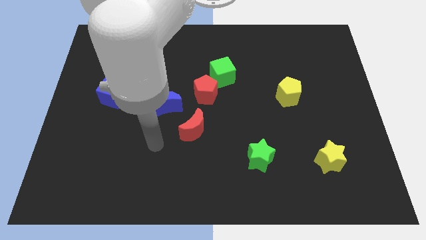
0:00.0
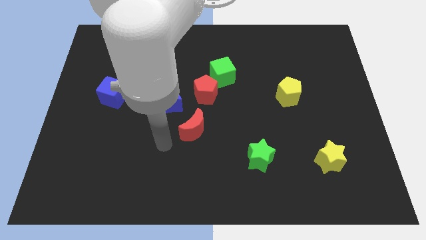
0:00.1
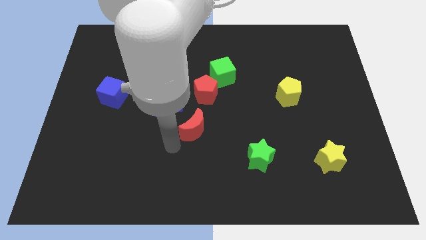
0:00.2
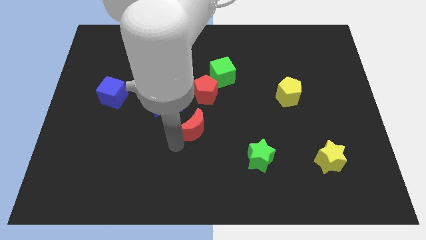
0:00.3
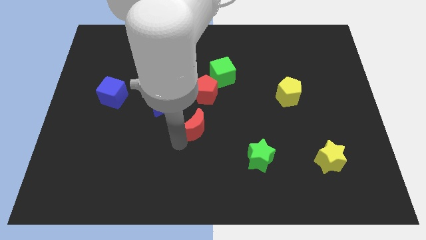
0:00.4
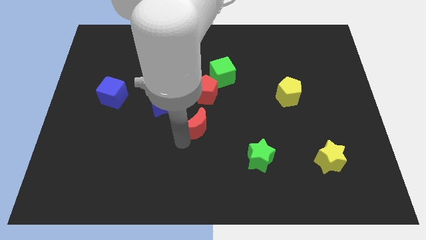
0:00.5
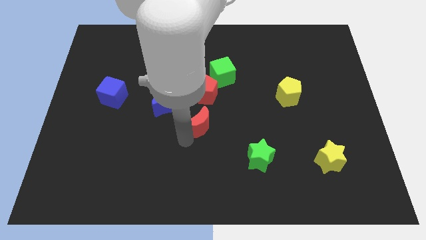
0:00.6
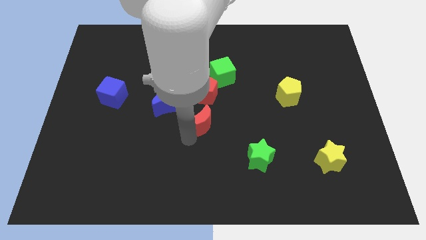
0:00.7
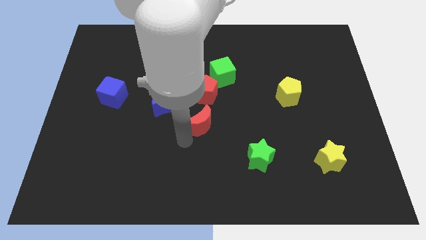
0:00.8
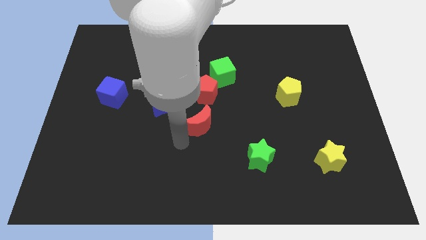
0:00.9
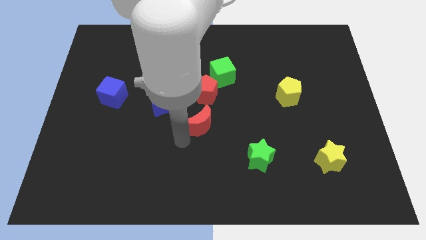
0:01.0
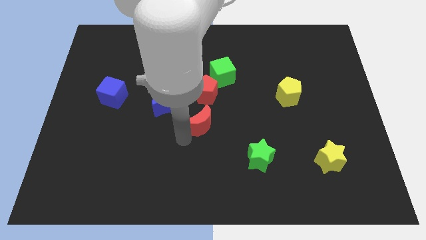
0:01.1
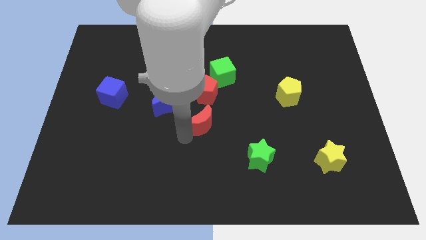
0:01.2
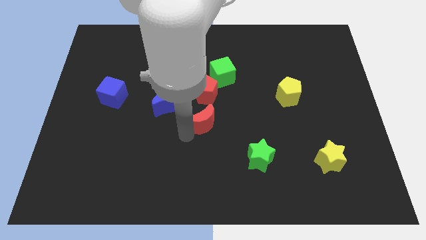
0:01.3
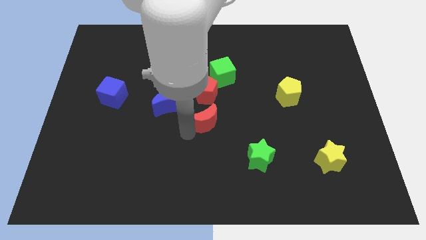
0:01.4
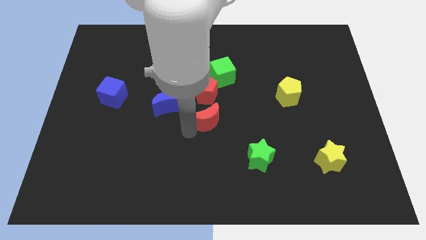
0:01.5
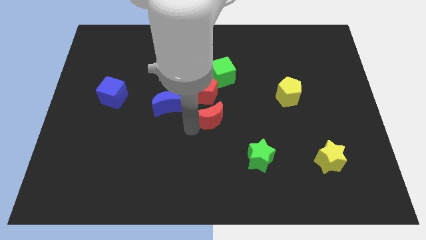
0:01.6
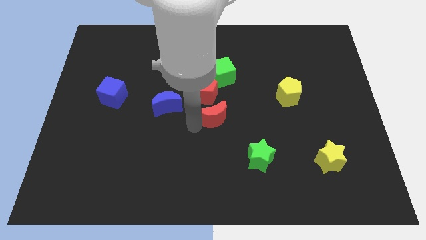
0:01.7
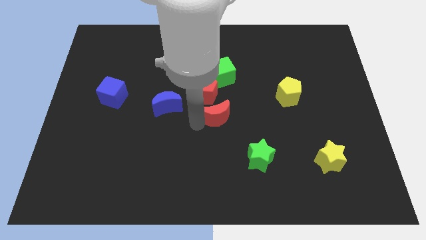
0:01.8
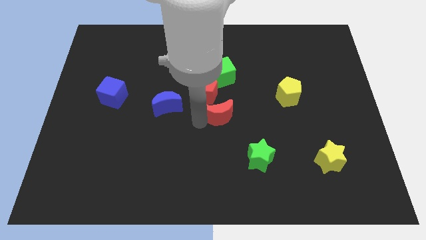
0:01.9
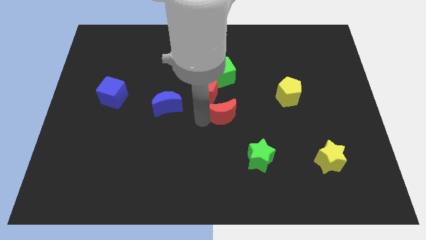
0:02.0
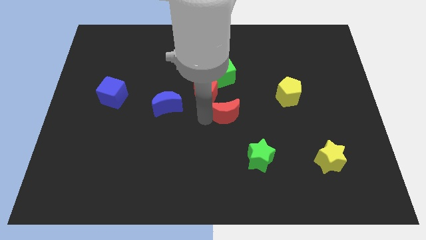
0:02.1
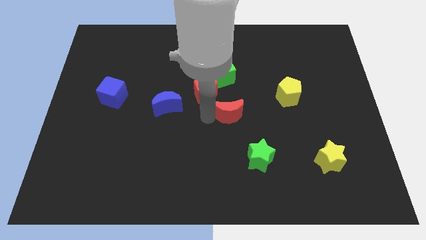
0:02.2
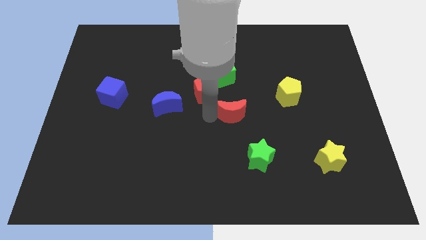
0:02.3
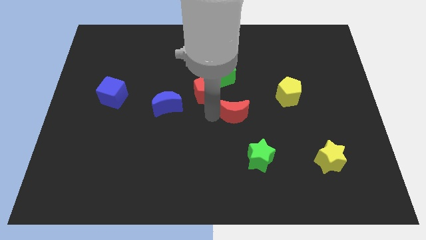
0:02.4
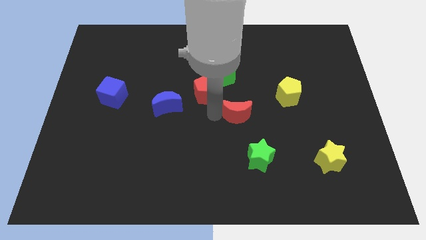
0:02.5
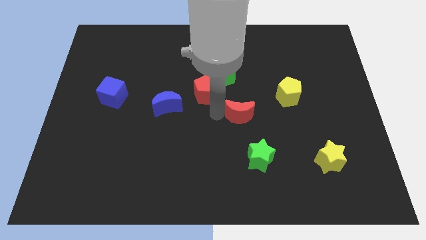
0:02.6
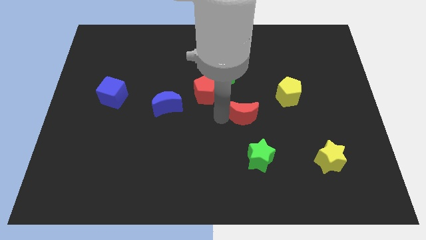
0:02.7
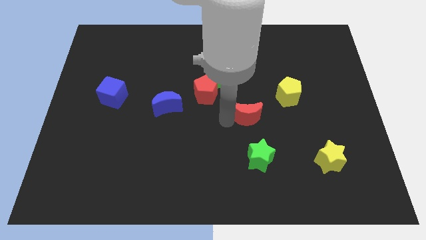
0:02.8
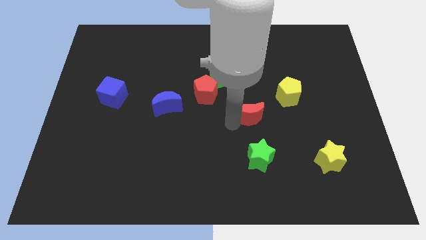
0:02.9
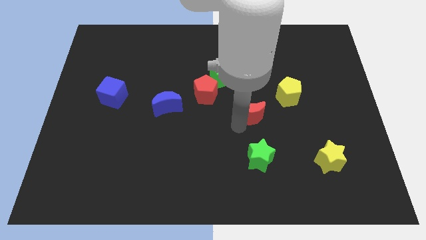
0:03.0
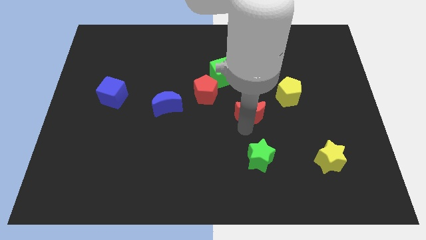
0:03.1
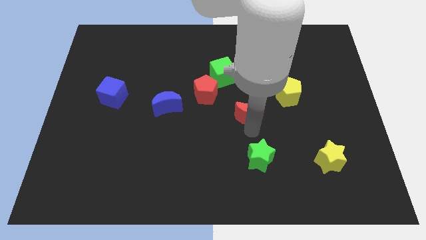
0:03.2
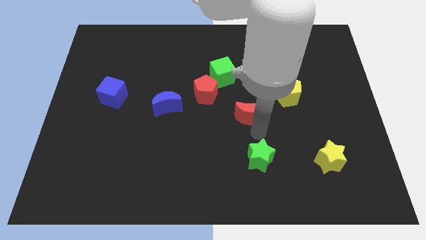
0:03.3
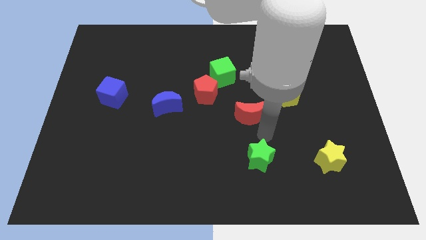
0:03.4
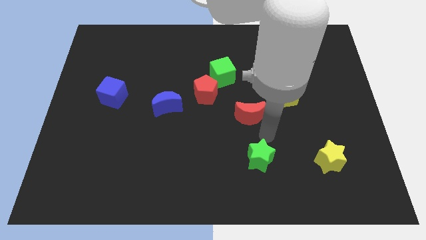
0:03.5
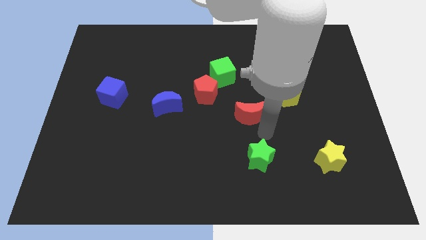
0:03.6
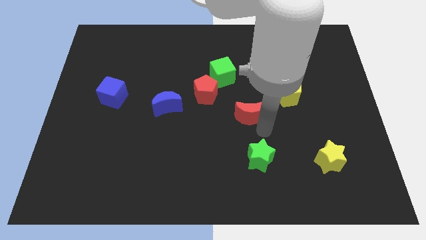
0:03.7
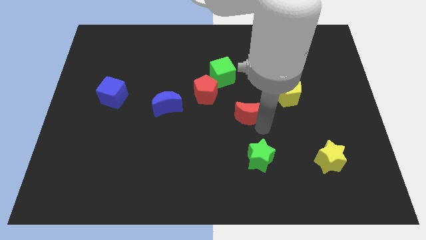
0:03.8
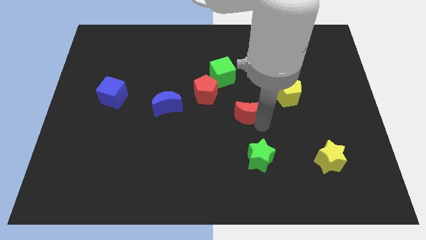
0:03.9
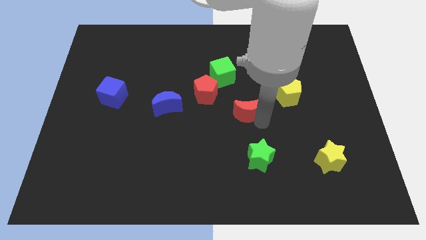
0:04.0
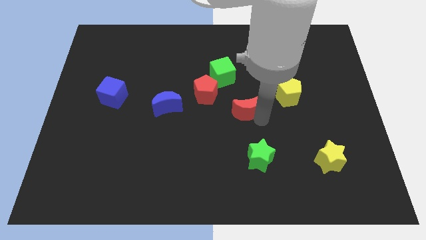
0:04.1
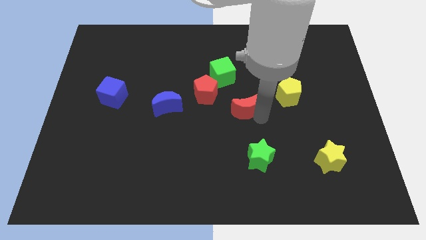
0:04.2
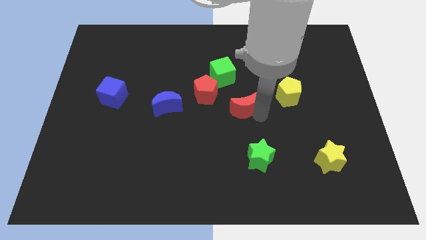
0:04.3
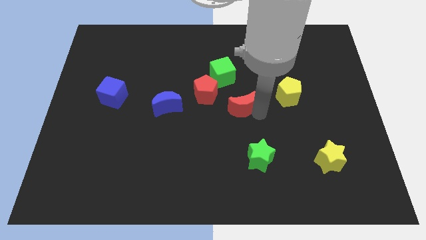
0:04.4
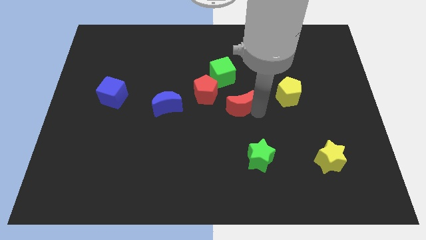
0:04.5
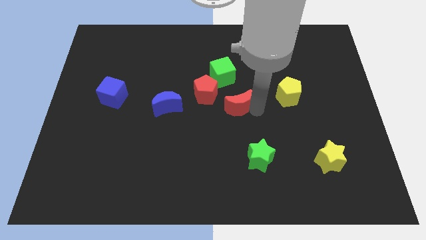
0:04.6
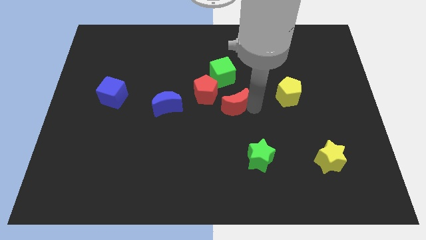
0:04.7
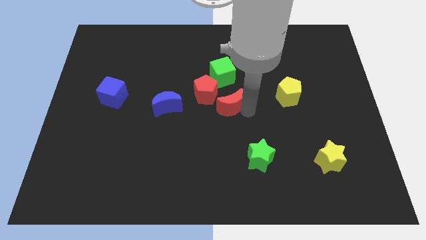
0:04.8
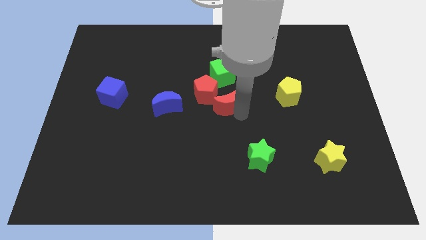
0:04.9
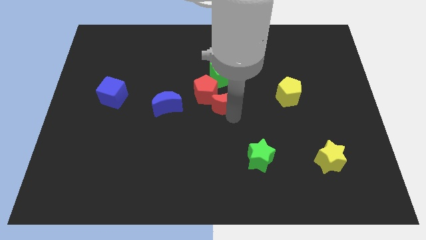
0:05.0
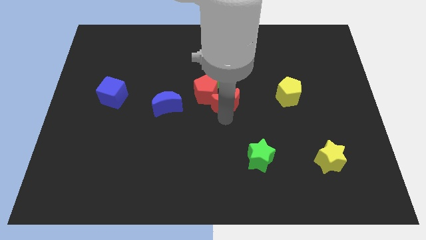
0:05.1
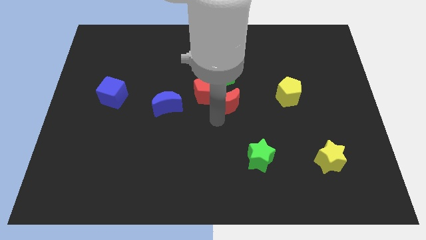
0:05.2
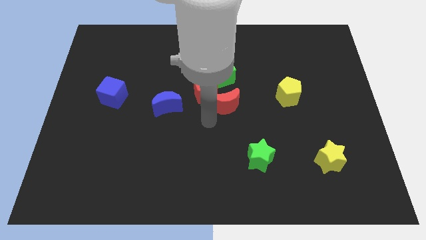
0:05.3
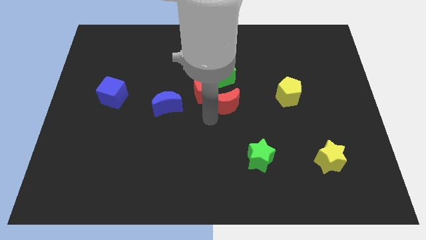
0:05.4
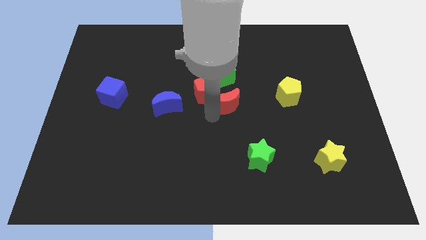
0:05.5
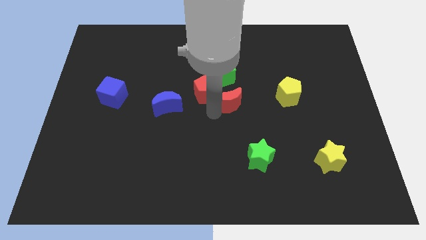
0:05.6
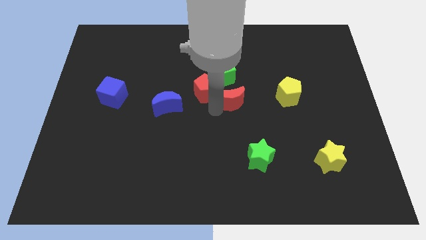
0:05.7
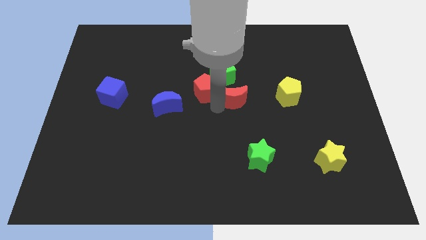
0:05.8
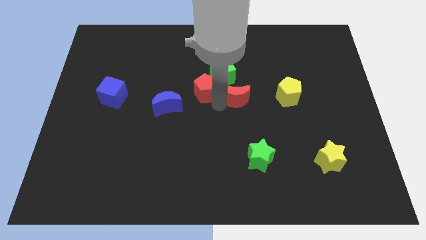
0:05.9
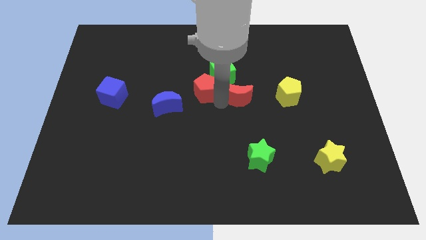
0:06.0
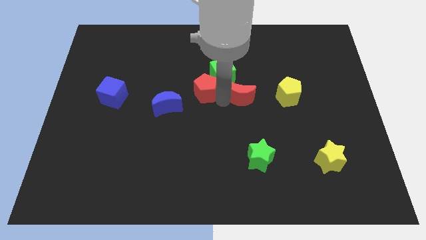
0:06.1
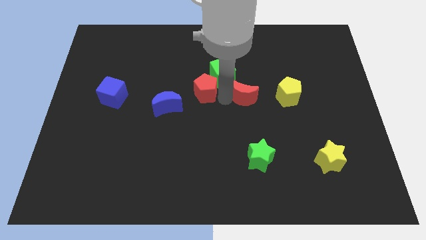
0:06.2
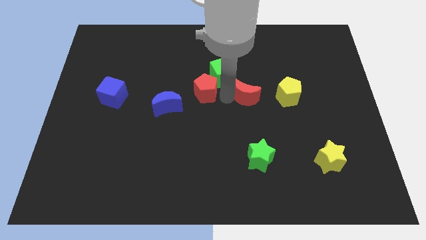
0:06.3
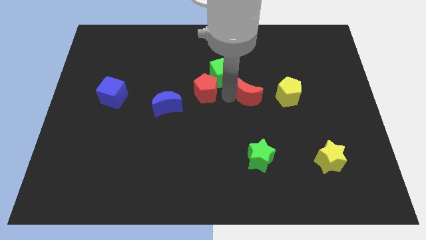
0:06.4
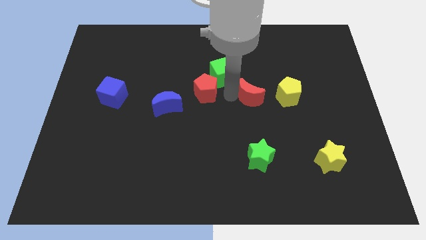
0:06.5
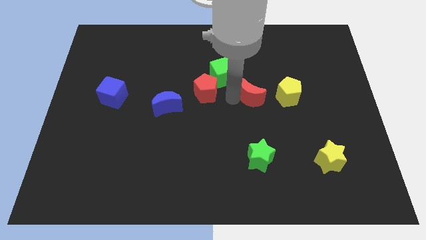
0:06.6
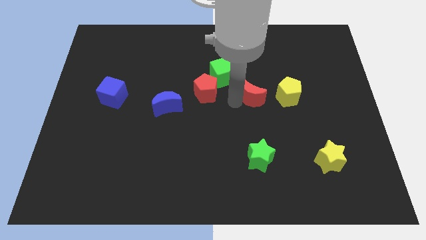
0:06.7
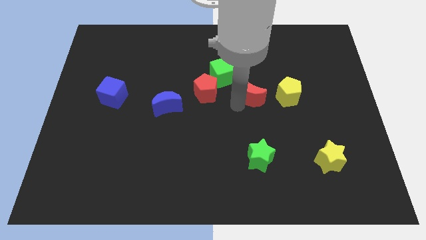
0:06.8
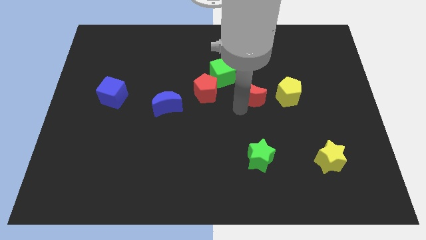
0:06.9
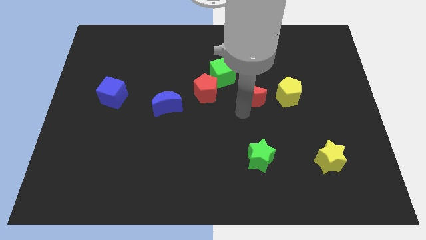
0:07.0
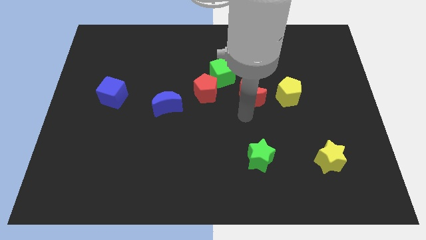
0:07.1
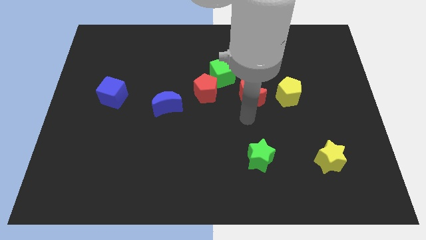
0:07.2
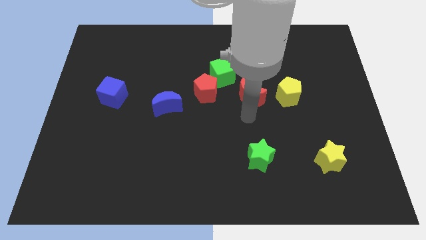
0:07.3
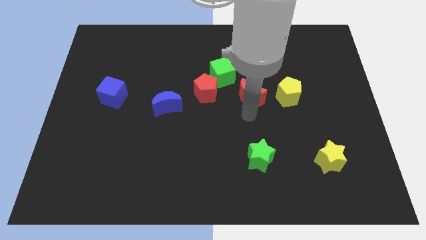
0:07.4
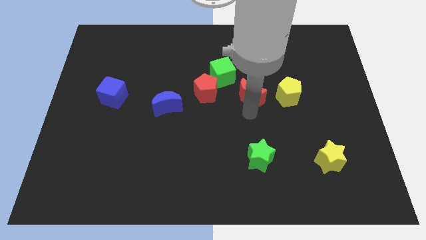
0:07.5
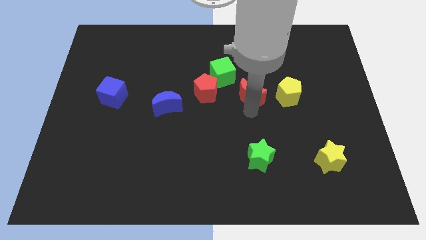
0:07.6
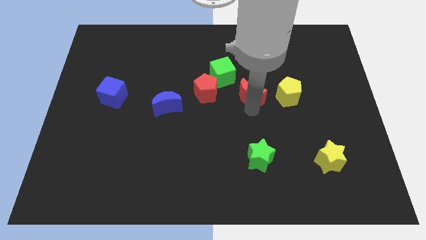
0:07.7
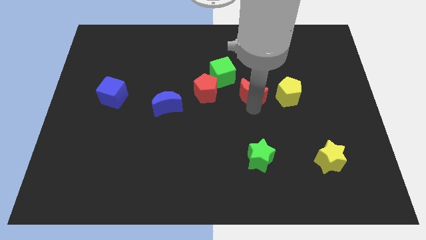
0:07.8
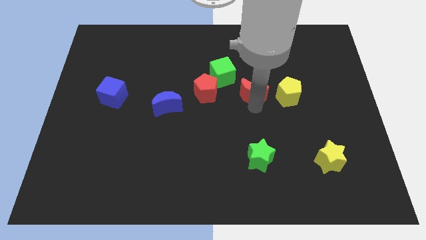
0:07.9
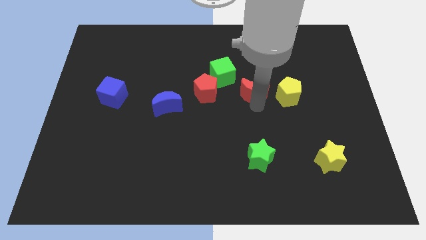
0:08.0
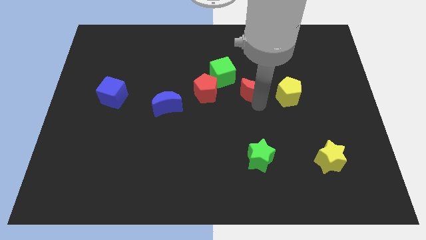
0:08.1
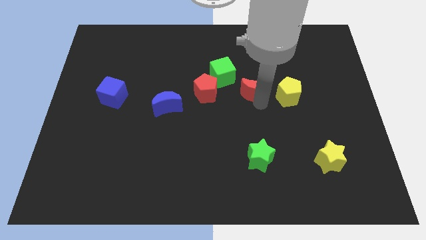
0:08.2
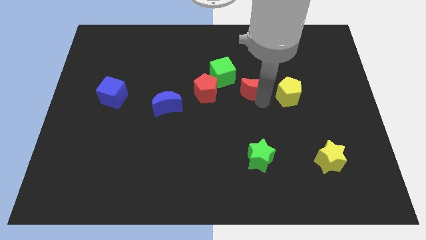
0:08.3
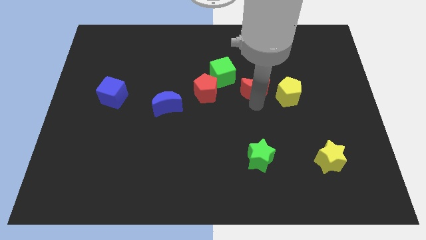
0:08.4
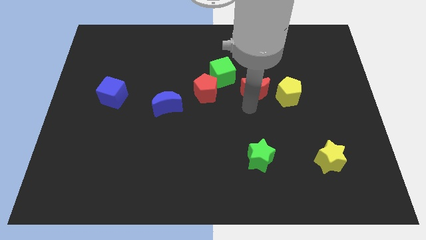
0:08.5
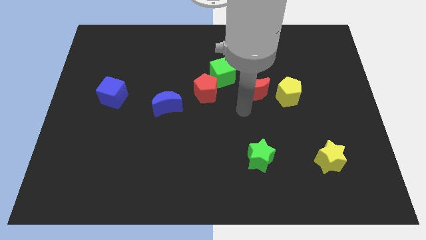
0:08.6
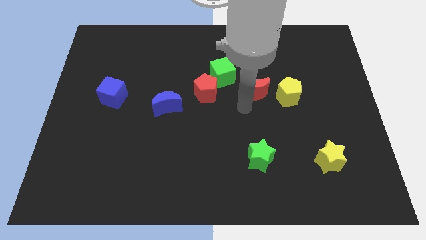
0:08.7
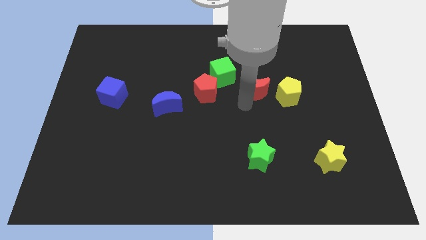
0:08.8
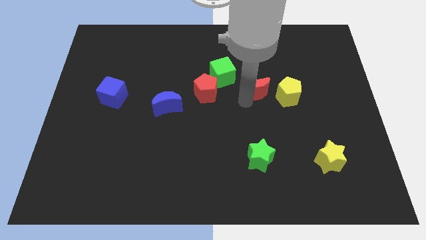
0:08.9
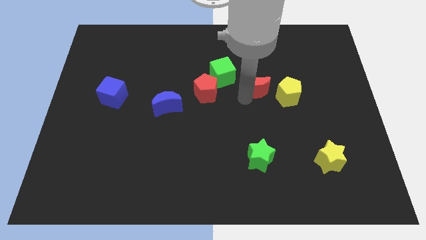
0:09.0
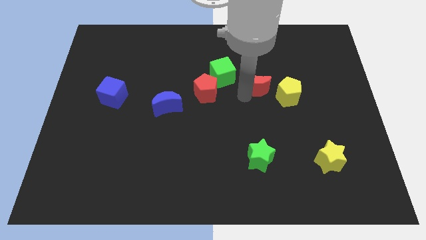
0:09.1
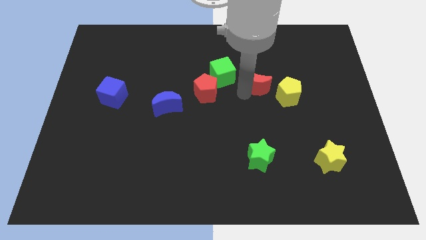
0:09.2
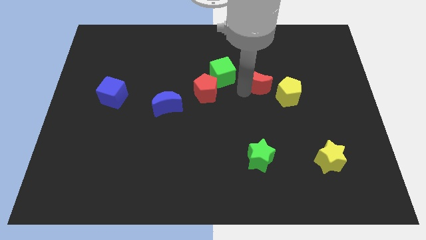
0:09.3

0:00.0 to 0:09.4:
move the red moon up and to the right
